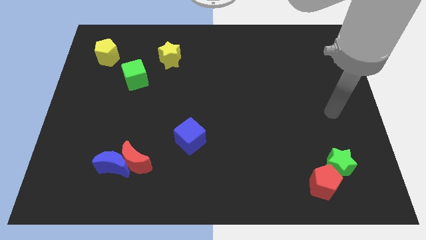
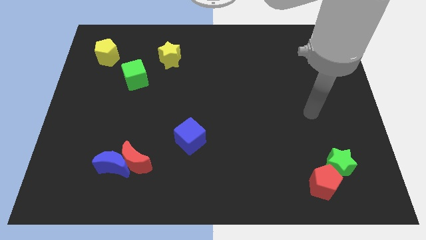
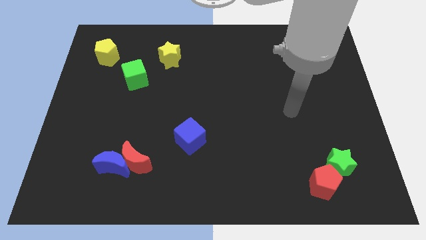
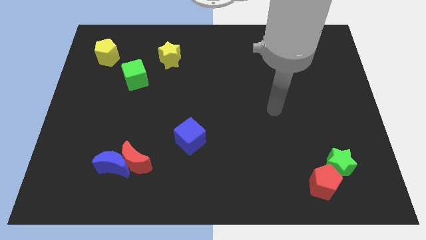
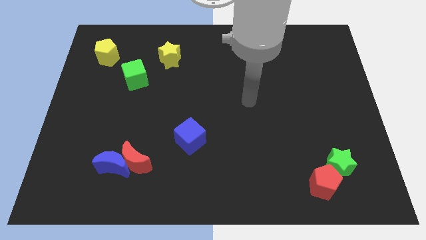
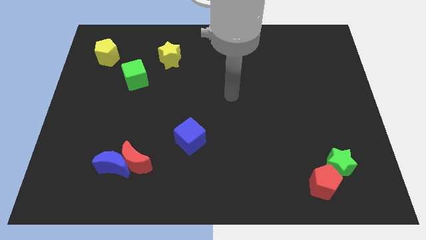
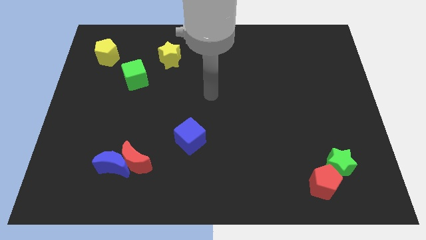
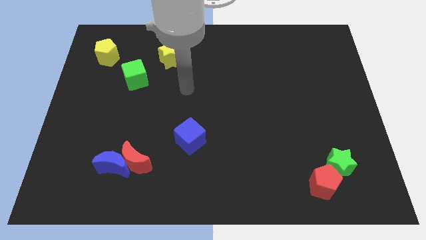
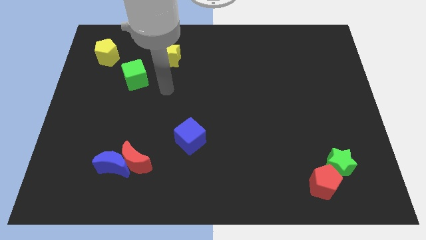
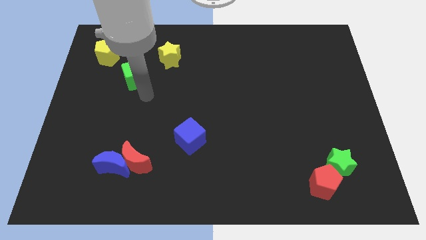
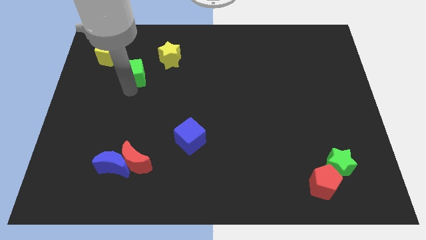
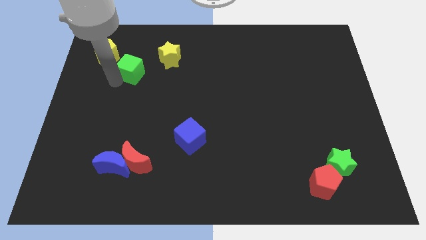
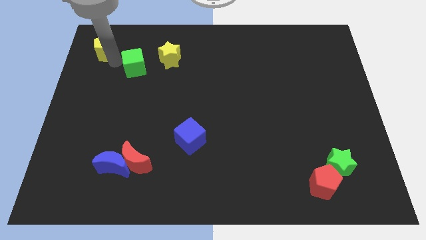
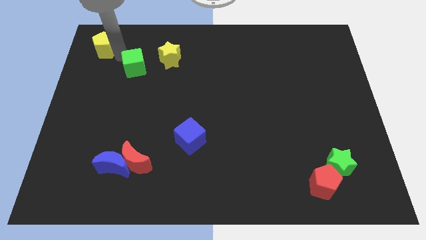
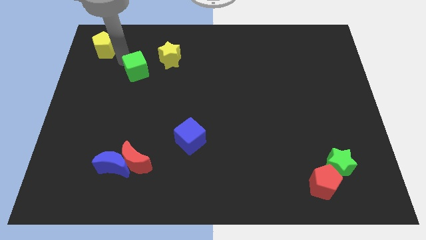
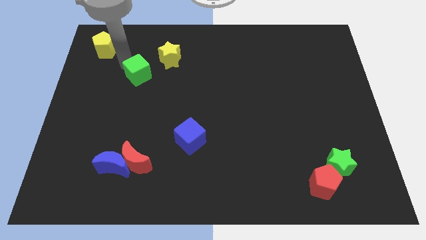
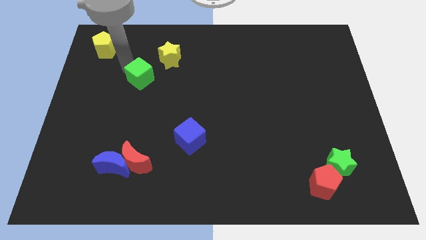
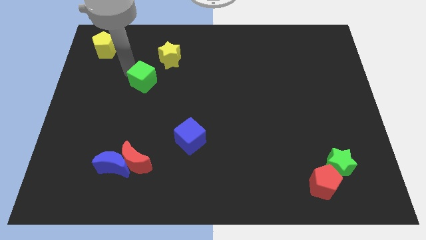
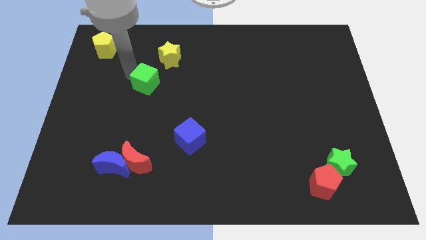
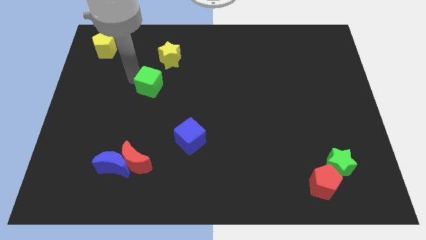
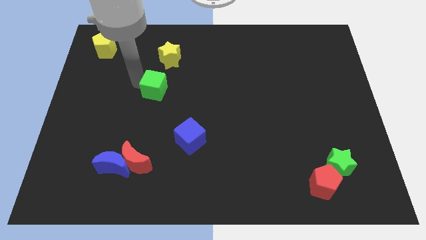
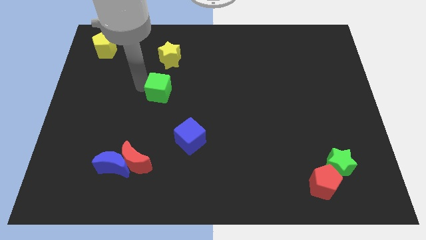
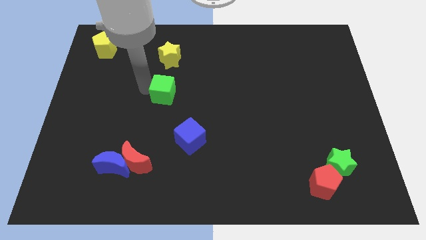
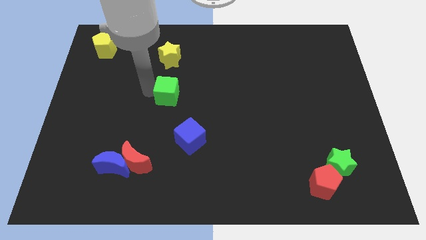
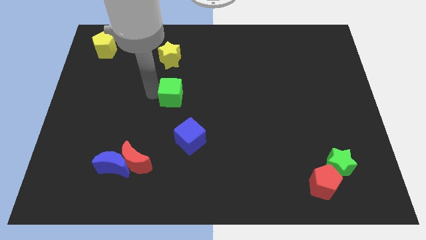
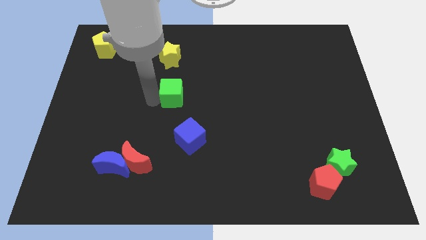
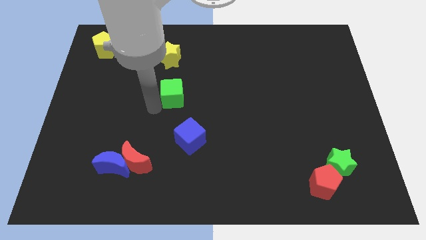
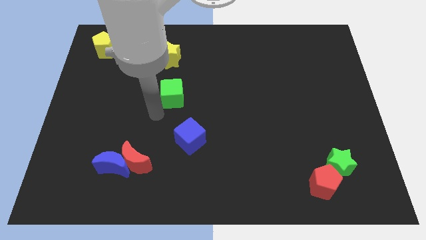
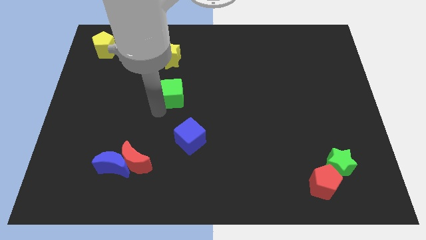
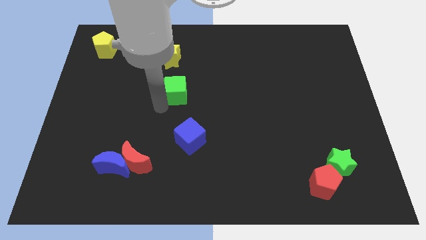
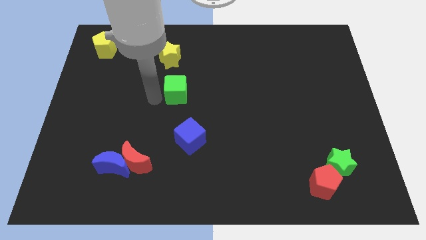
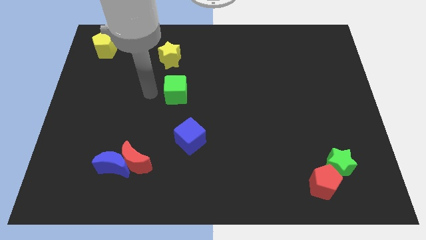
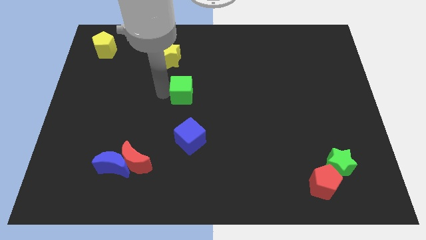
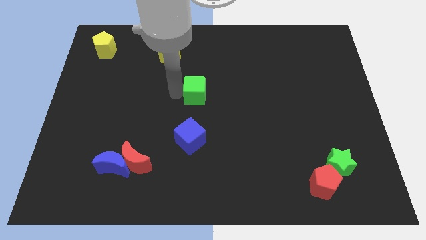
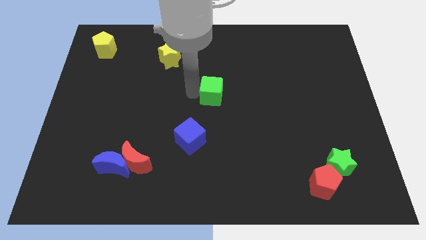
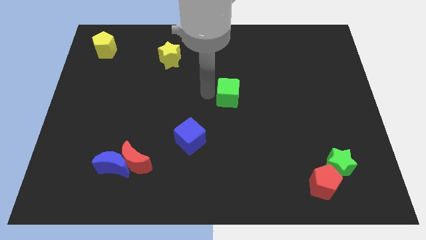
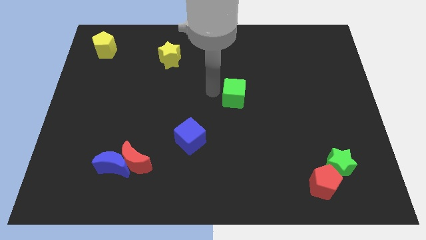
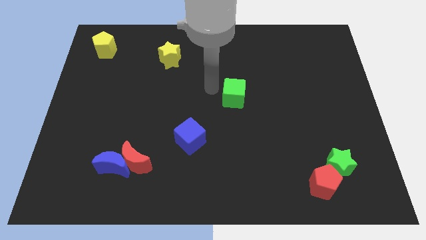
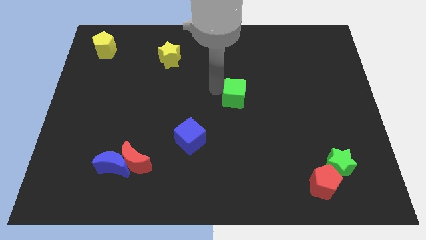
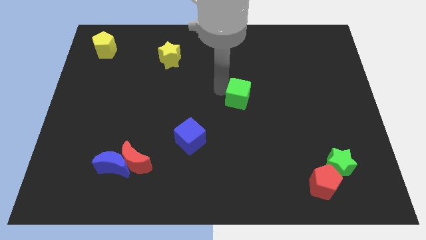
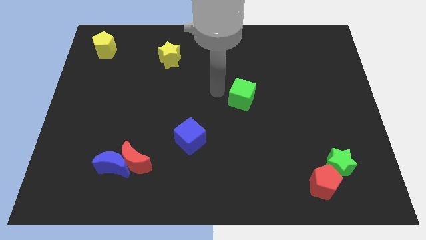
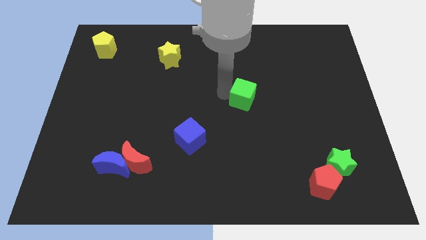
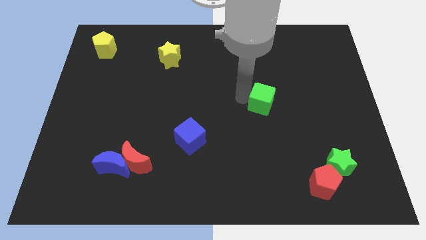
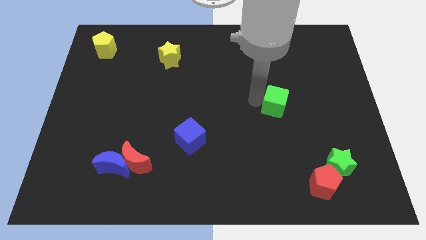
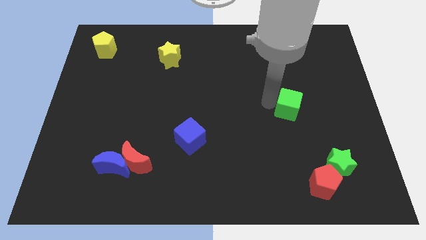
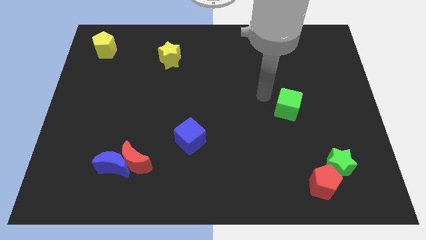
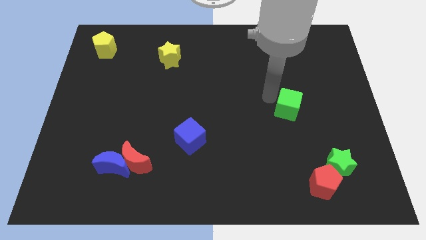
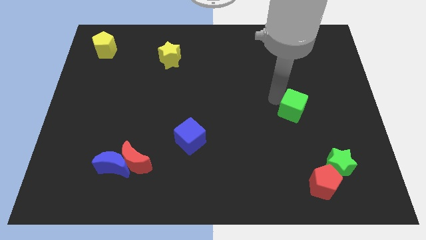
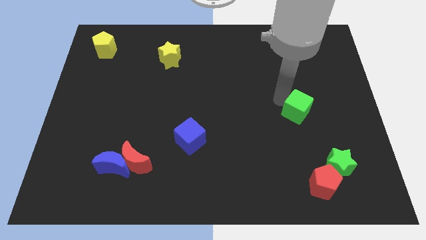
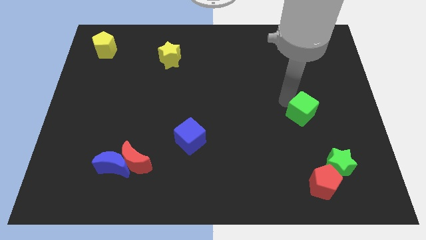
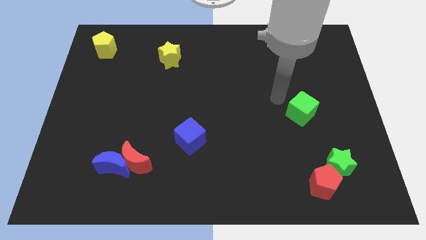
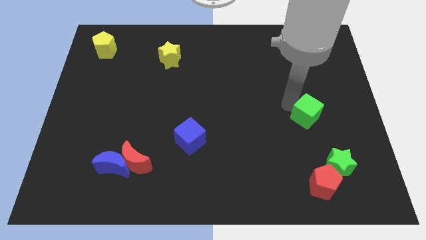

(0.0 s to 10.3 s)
slide the green cube to the top of the green star

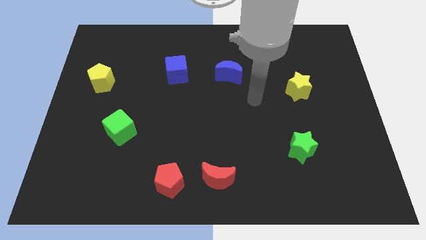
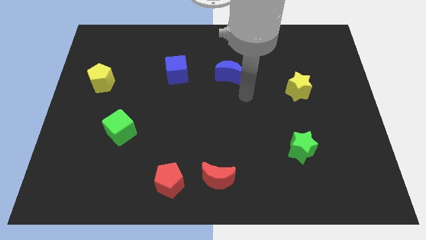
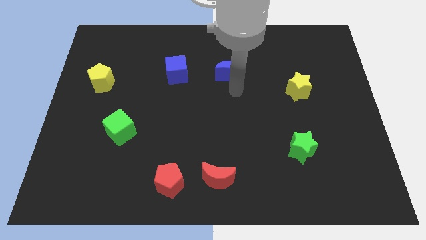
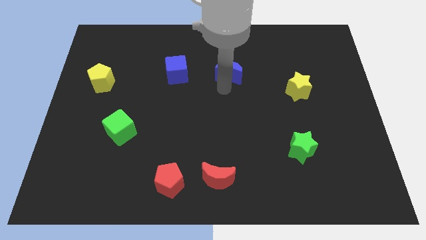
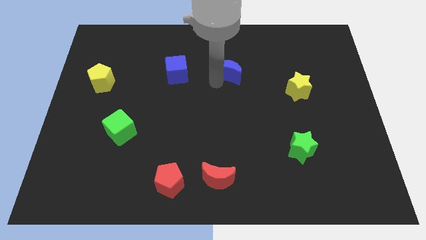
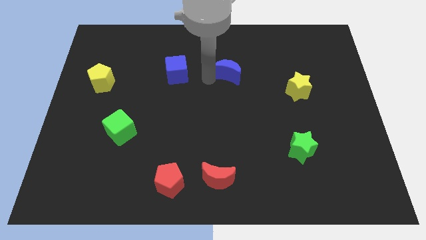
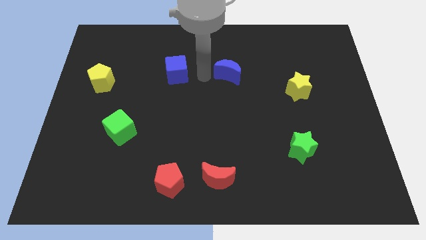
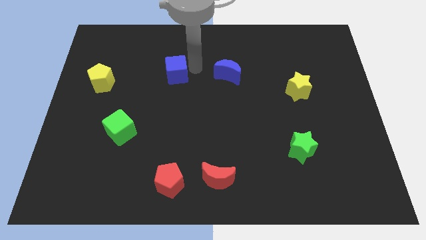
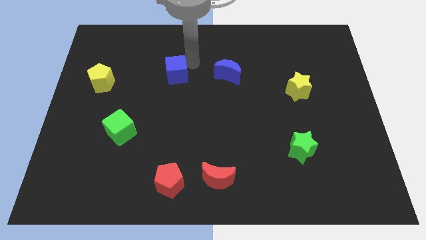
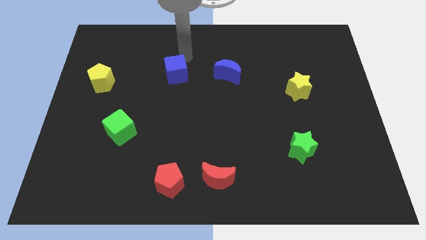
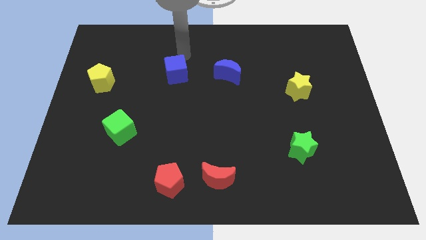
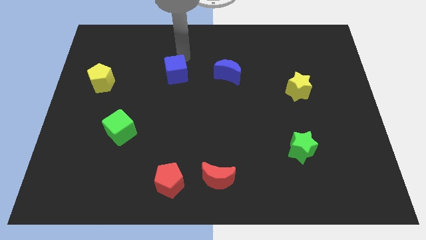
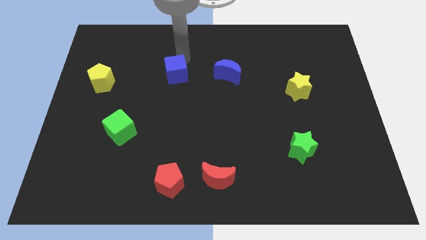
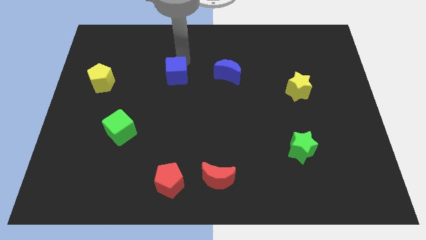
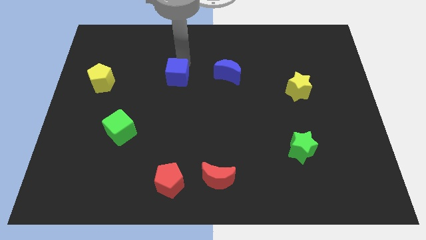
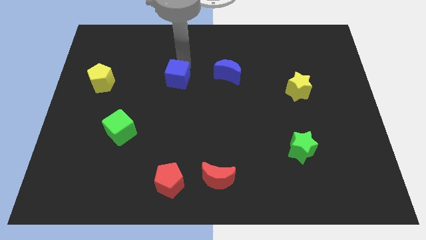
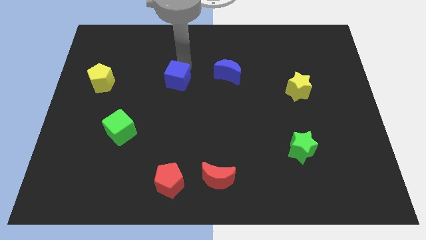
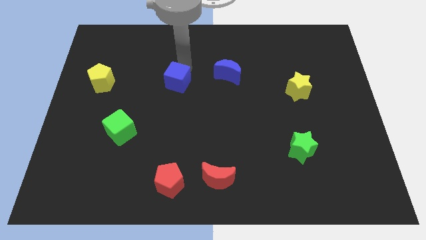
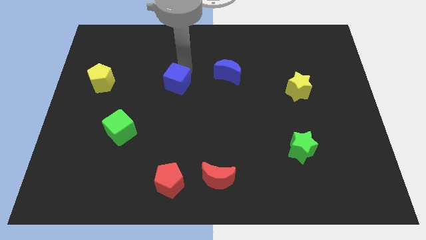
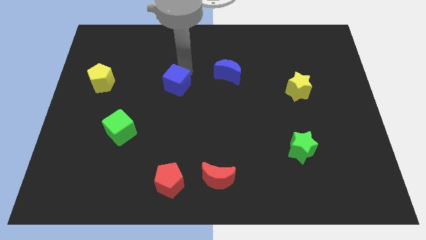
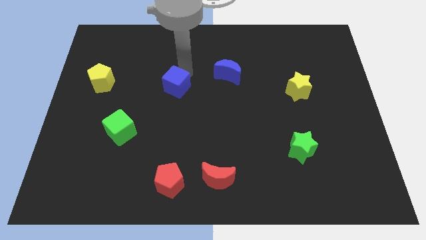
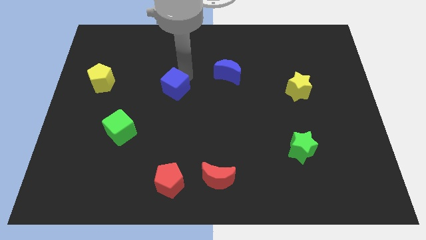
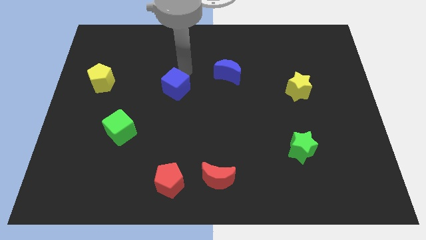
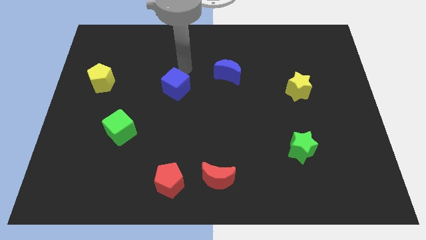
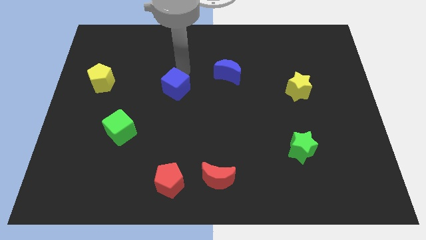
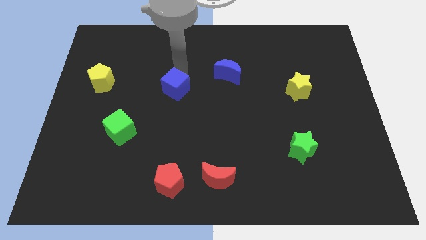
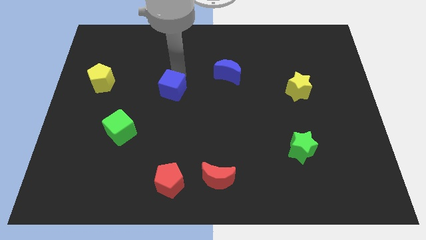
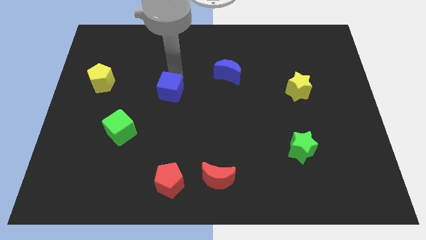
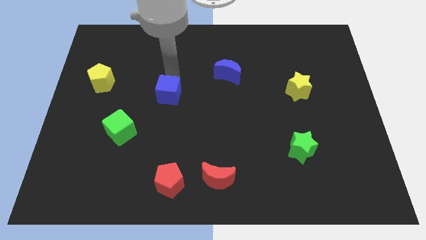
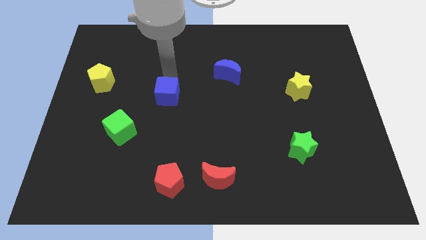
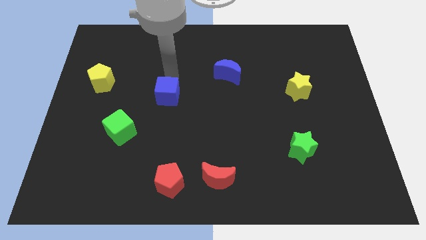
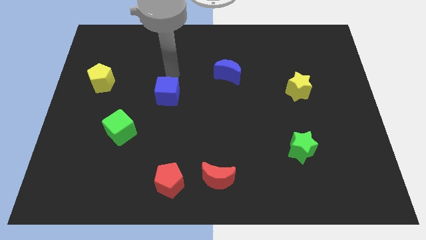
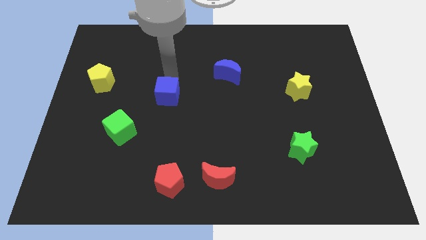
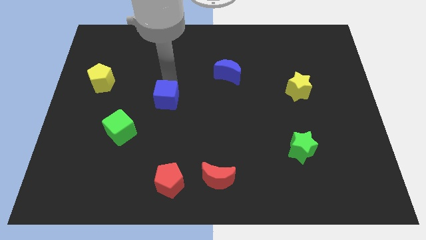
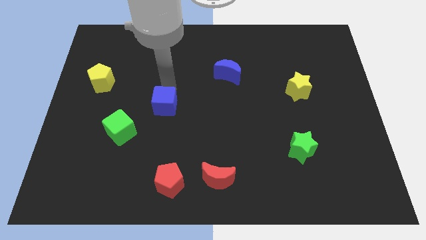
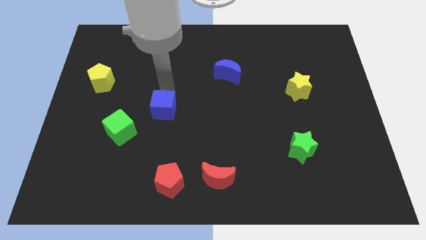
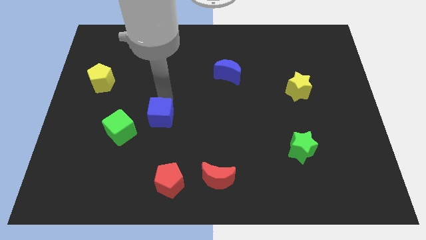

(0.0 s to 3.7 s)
move the blue cube to the right of the green cube
